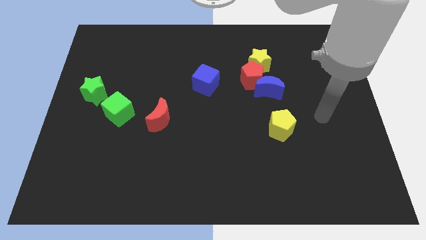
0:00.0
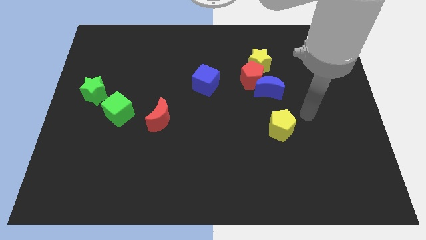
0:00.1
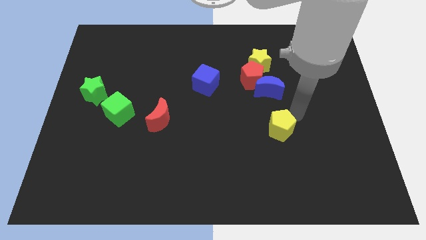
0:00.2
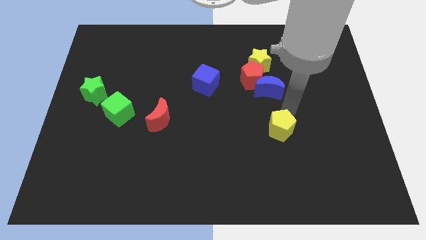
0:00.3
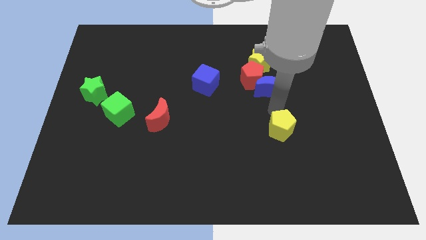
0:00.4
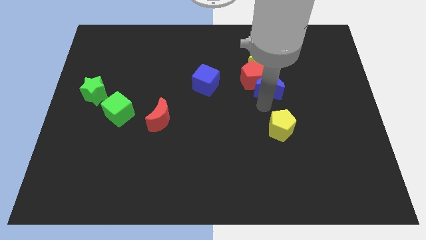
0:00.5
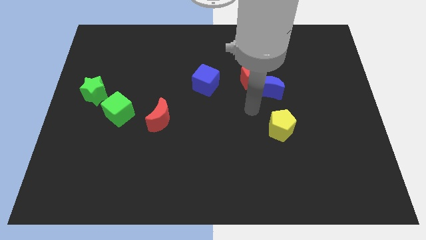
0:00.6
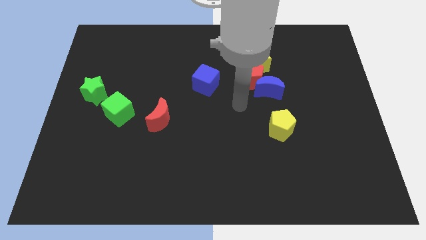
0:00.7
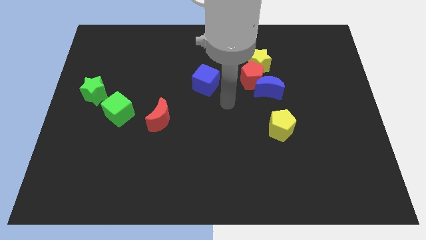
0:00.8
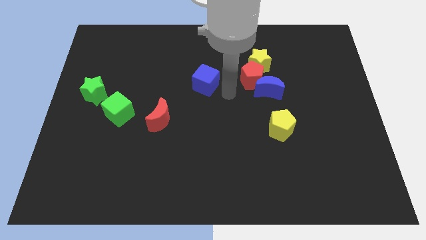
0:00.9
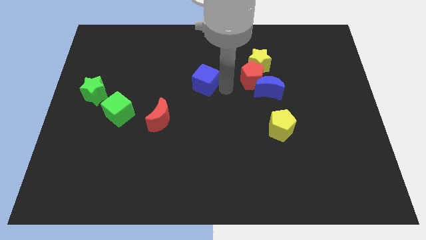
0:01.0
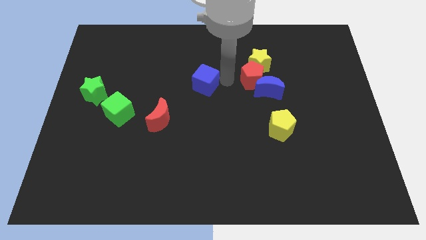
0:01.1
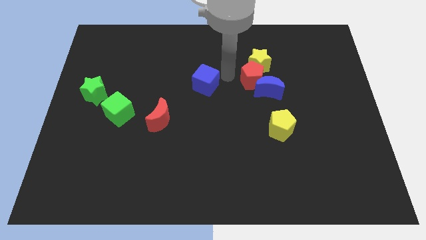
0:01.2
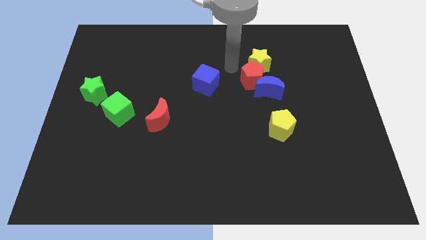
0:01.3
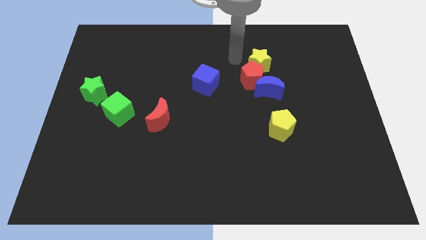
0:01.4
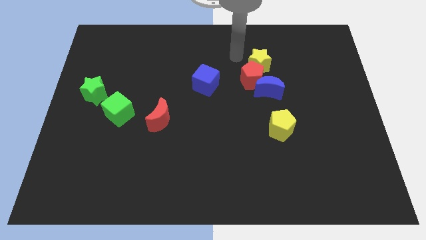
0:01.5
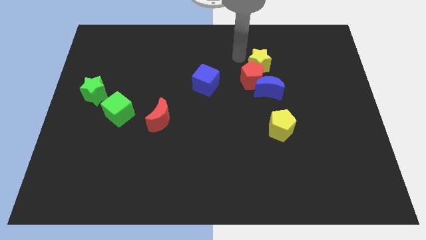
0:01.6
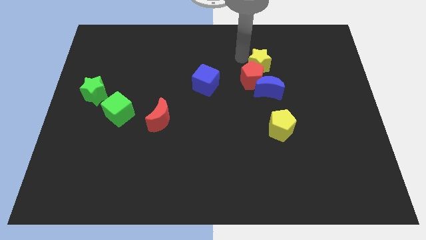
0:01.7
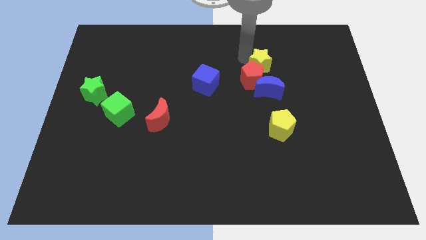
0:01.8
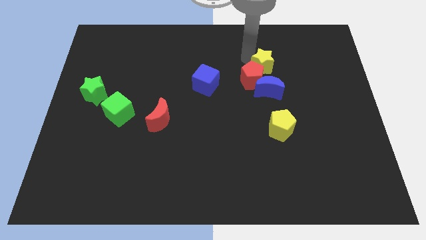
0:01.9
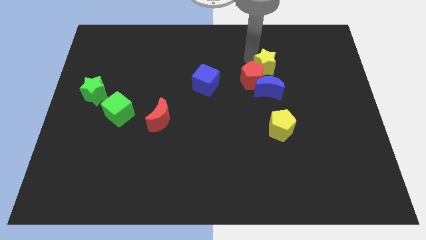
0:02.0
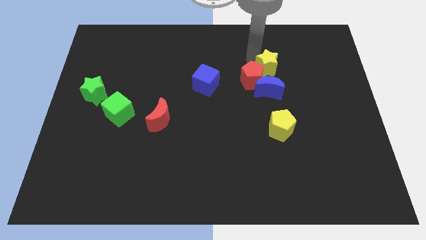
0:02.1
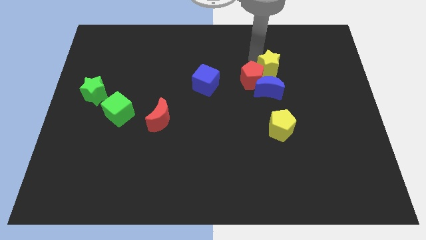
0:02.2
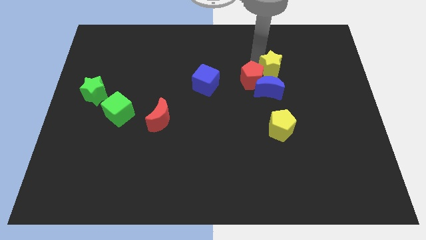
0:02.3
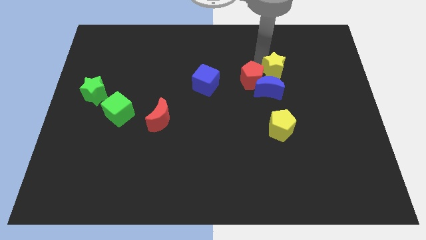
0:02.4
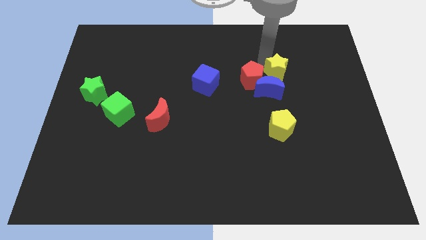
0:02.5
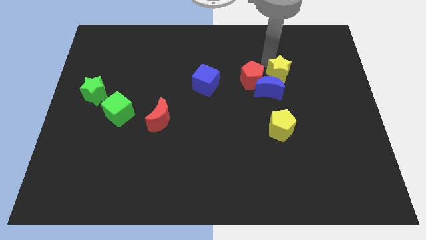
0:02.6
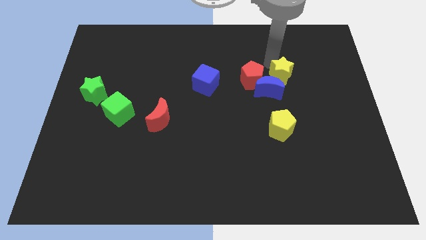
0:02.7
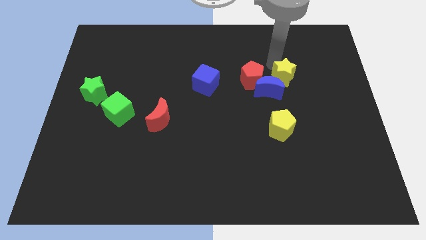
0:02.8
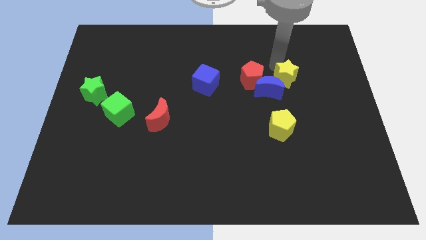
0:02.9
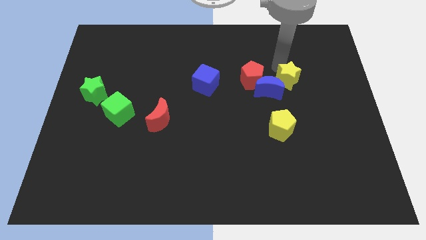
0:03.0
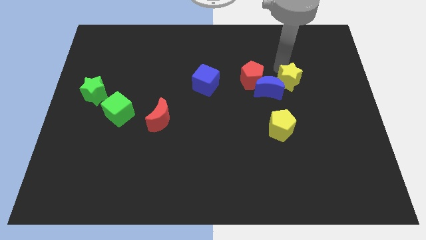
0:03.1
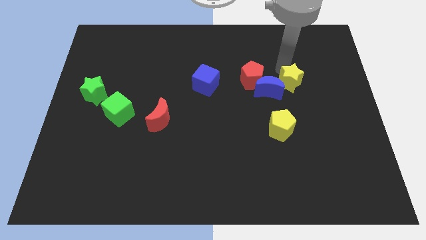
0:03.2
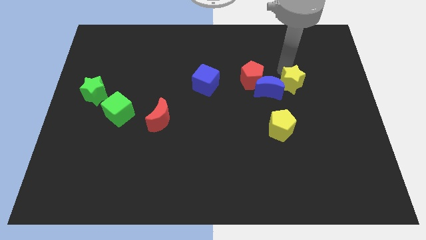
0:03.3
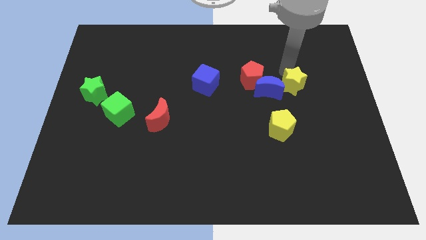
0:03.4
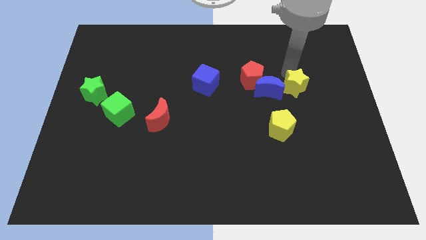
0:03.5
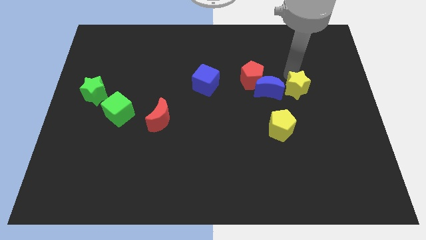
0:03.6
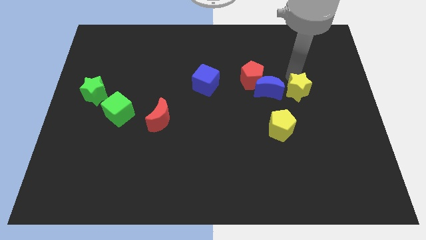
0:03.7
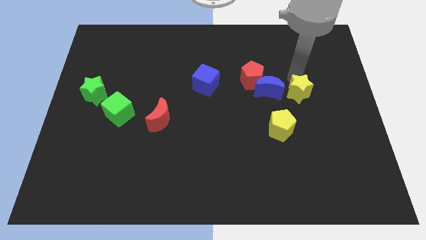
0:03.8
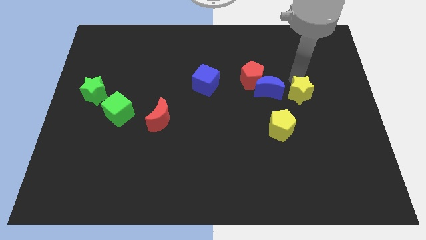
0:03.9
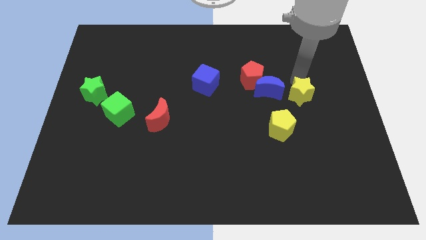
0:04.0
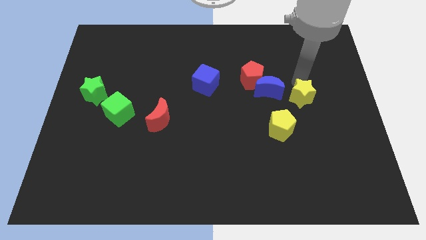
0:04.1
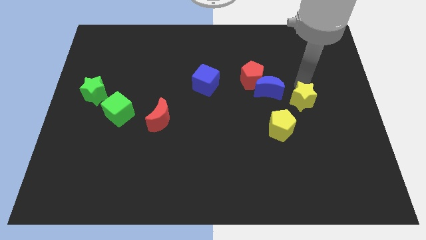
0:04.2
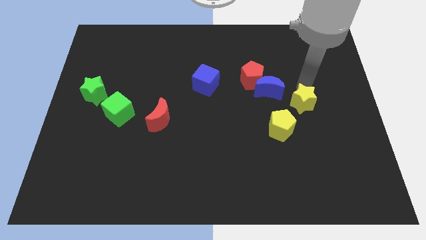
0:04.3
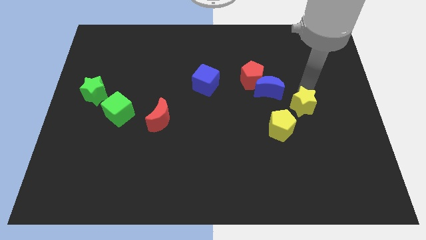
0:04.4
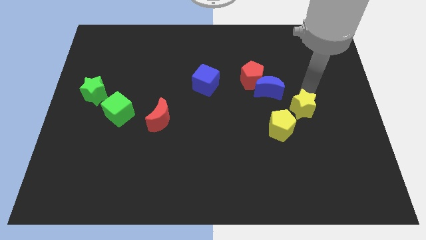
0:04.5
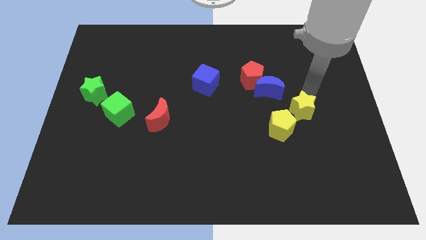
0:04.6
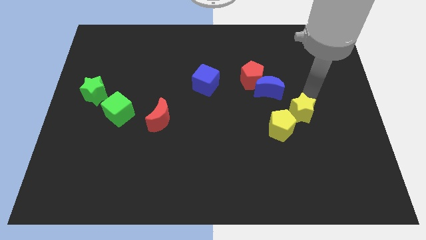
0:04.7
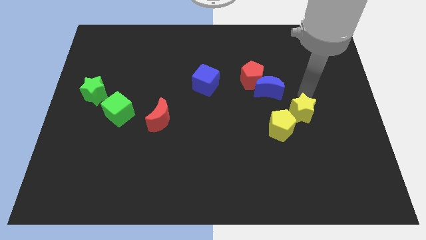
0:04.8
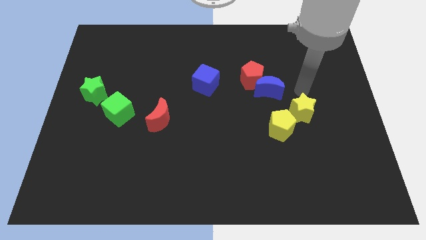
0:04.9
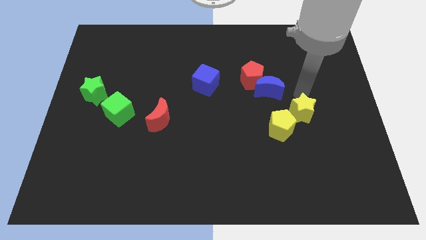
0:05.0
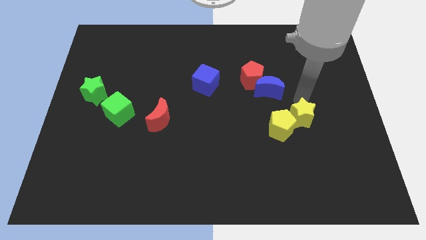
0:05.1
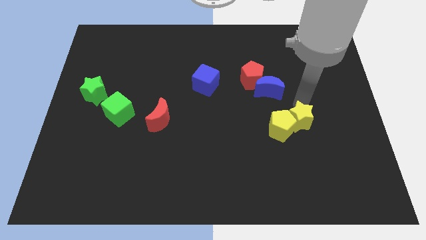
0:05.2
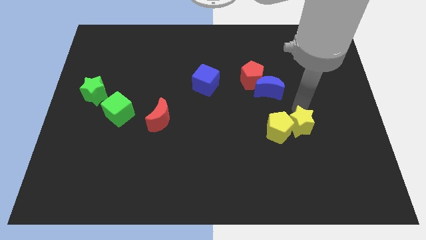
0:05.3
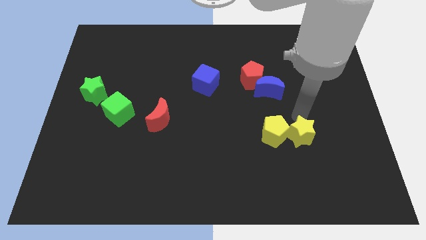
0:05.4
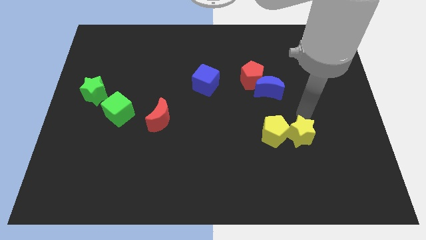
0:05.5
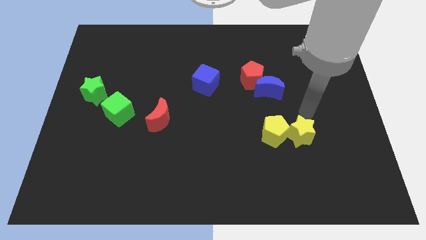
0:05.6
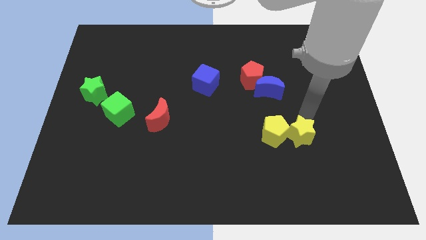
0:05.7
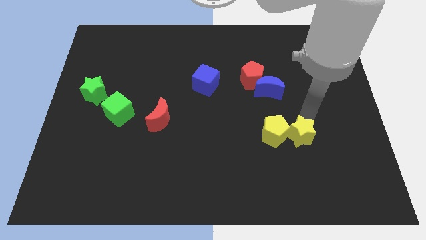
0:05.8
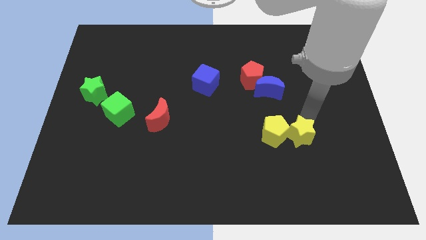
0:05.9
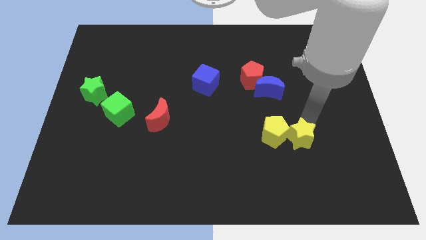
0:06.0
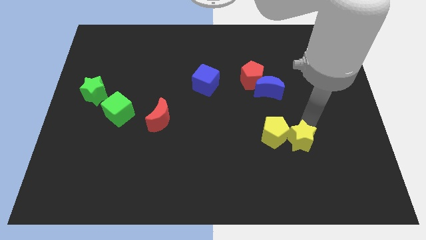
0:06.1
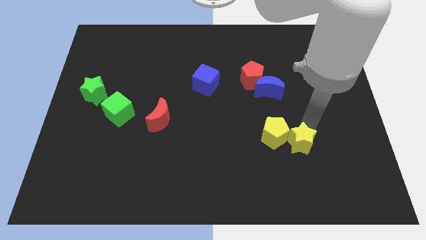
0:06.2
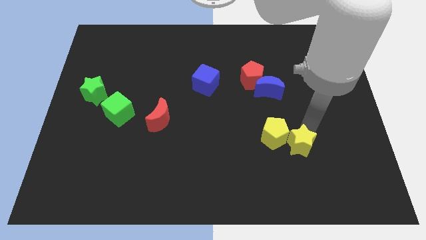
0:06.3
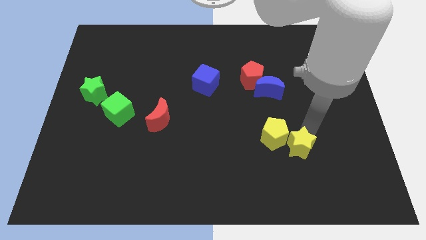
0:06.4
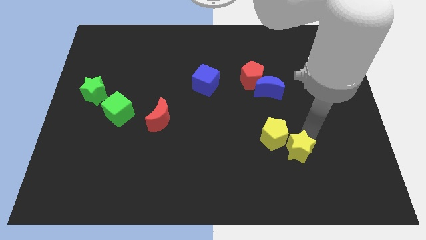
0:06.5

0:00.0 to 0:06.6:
move the yellow star to the bottom side of the yellow pentagon

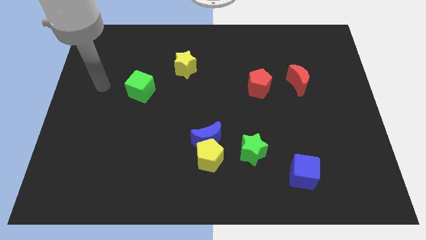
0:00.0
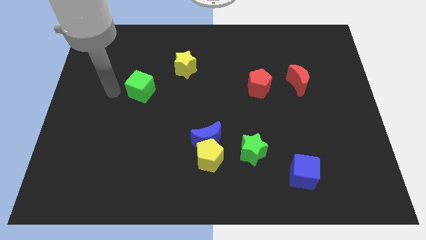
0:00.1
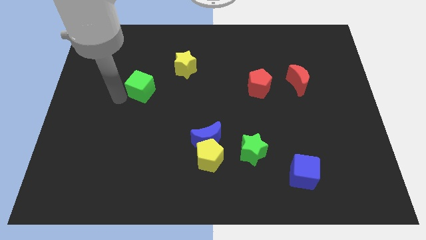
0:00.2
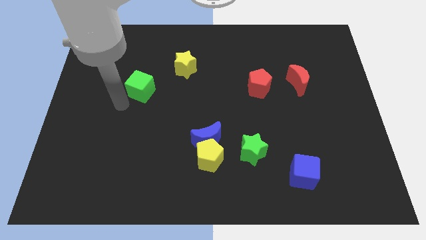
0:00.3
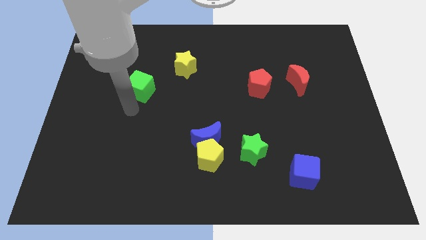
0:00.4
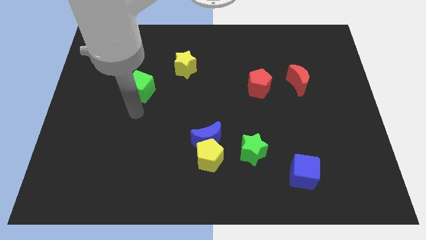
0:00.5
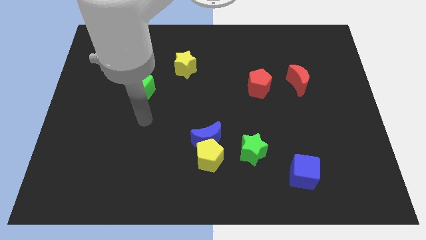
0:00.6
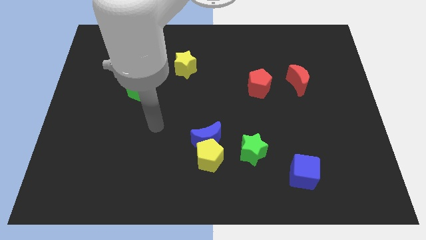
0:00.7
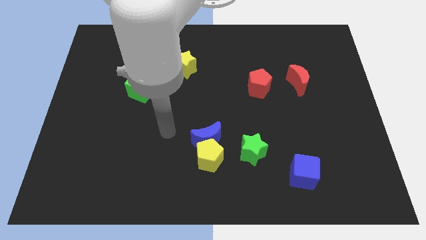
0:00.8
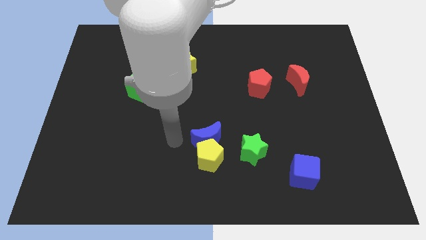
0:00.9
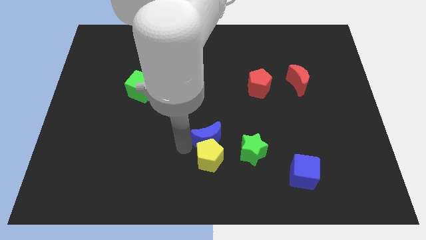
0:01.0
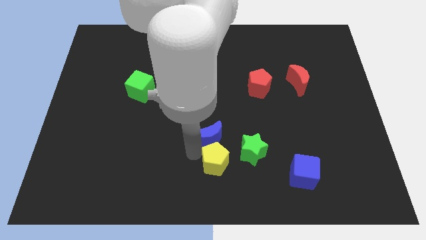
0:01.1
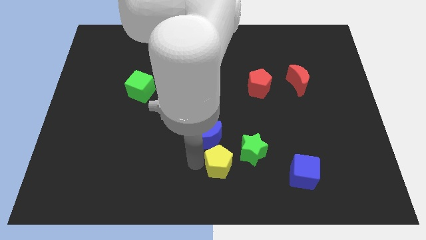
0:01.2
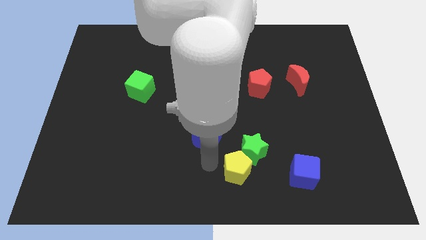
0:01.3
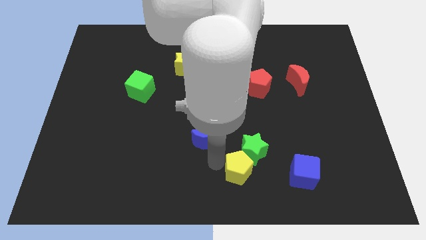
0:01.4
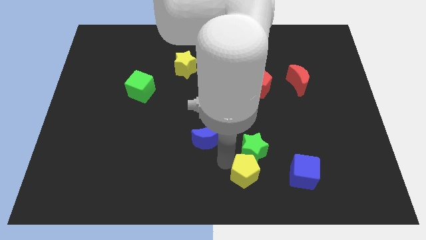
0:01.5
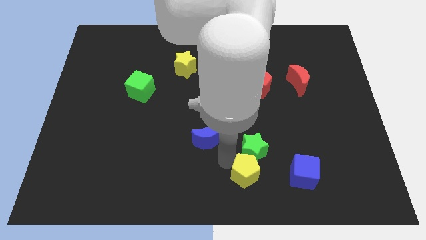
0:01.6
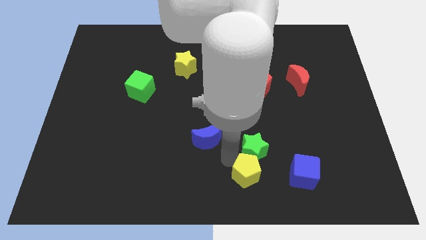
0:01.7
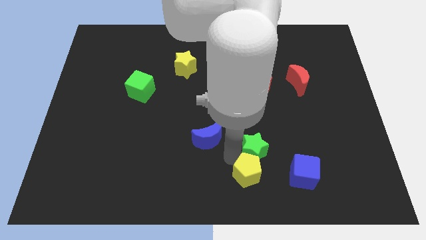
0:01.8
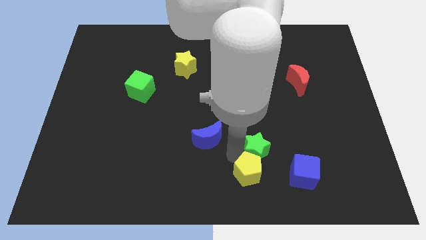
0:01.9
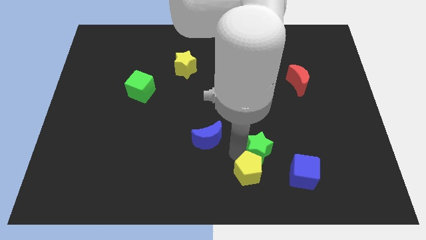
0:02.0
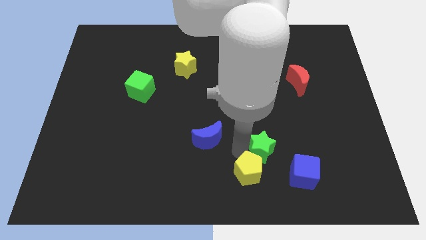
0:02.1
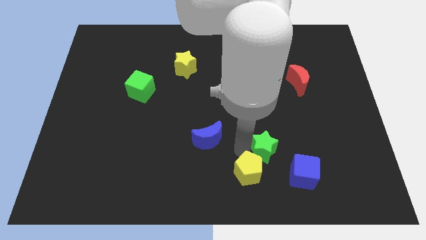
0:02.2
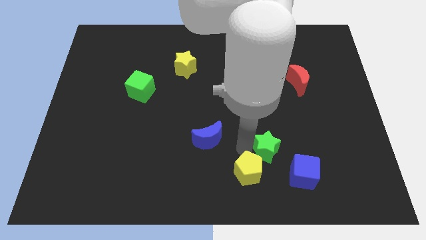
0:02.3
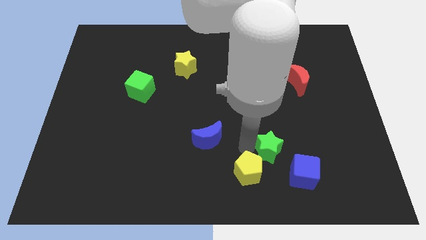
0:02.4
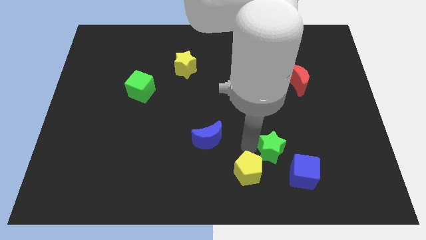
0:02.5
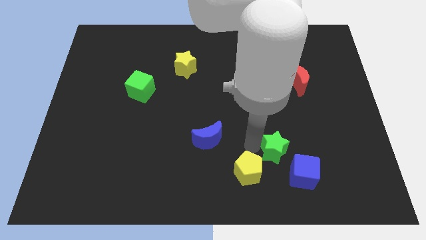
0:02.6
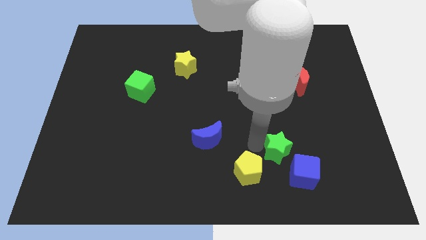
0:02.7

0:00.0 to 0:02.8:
slide the green star to the top of the blue cube
